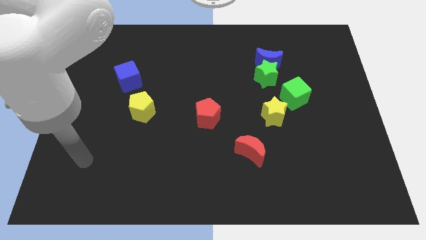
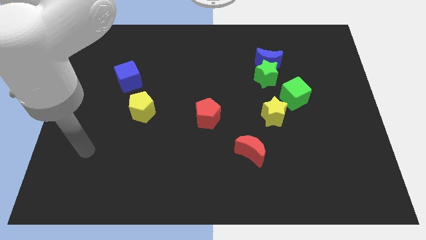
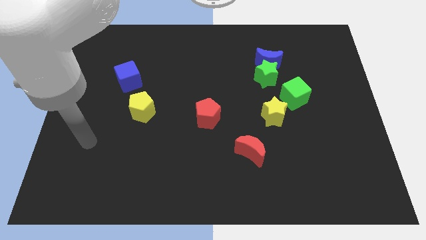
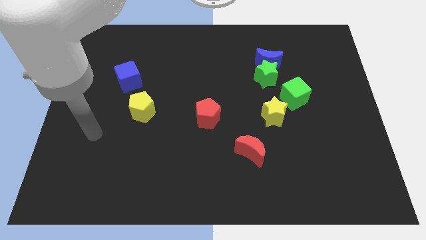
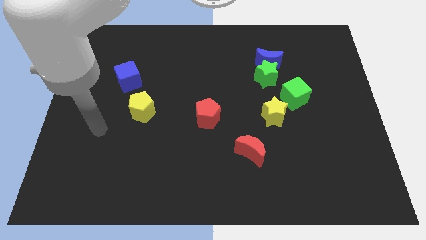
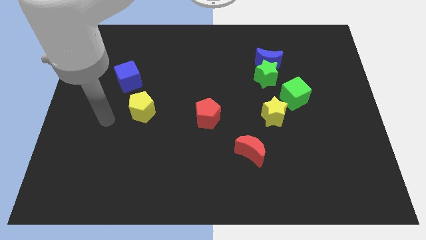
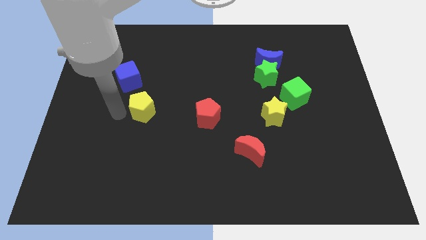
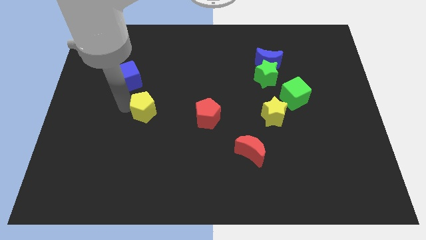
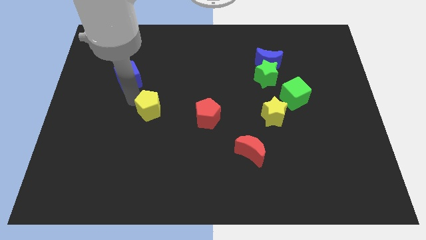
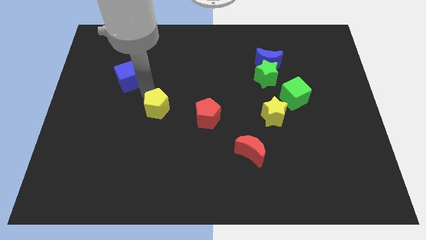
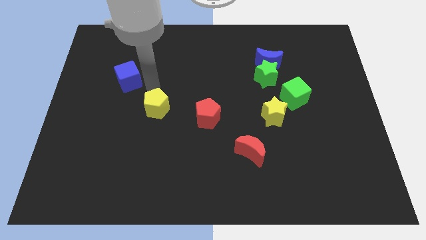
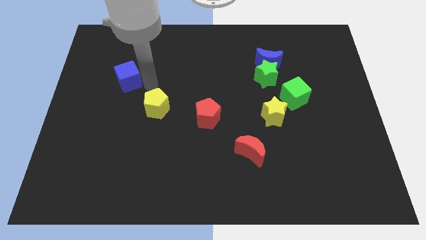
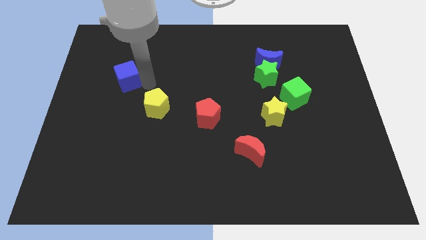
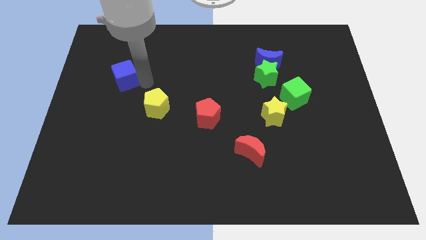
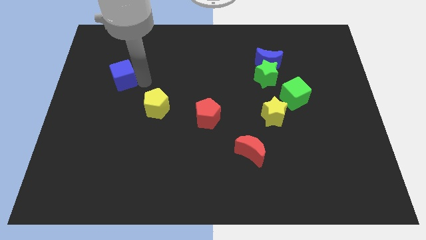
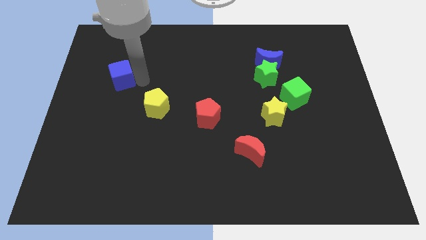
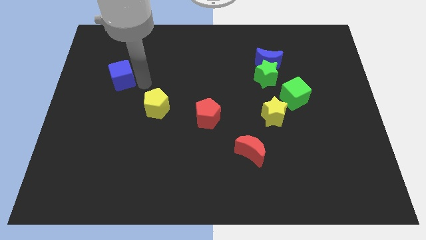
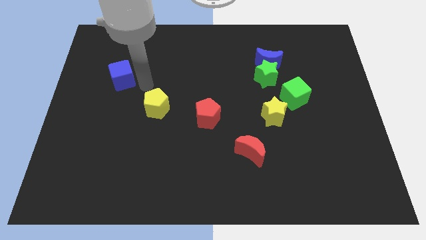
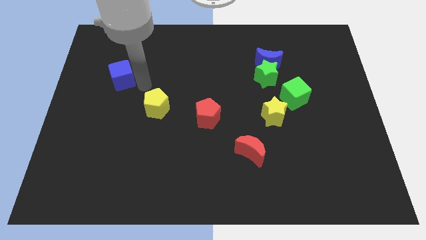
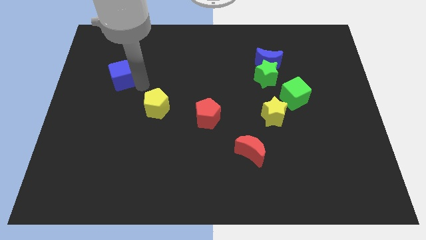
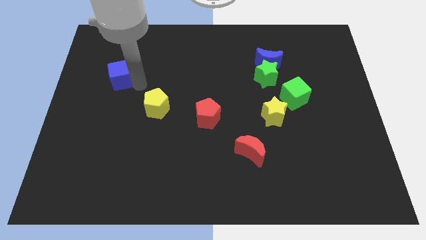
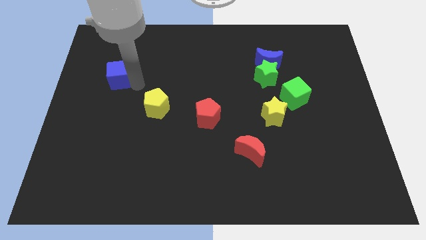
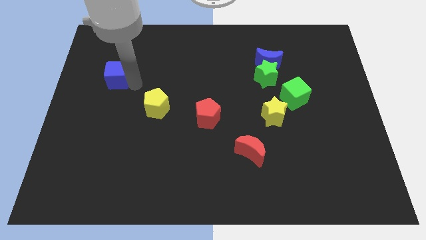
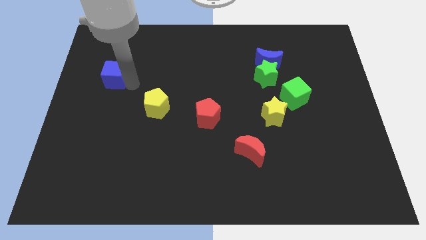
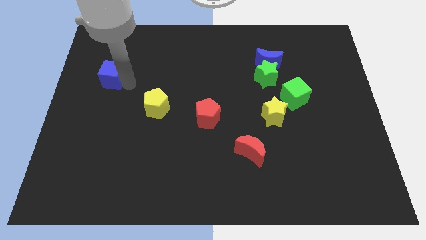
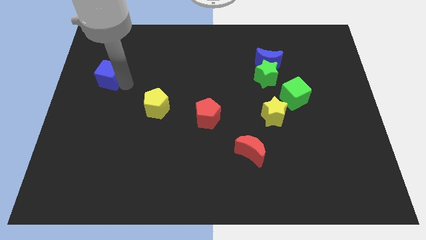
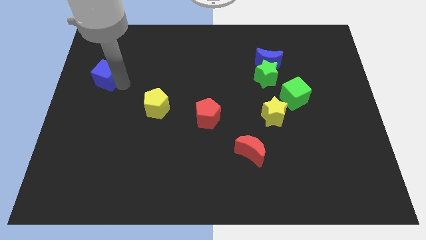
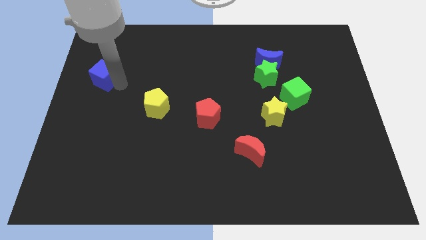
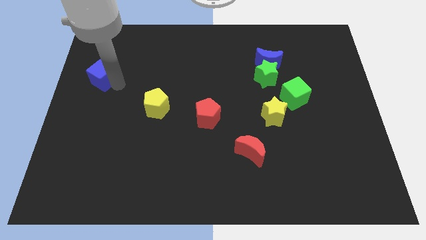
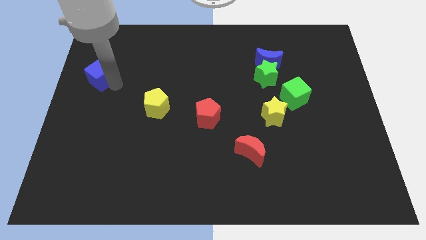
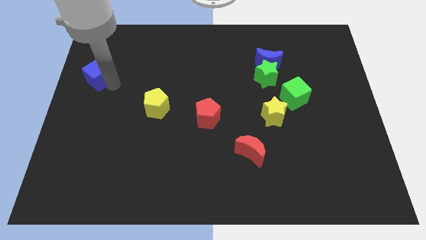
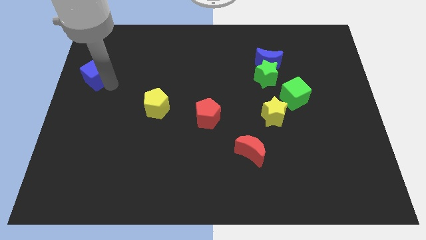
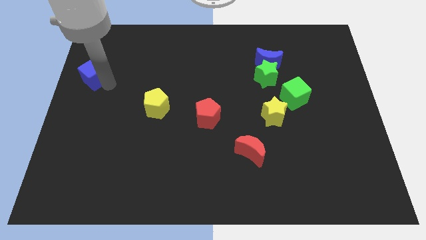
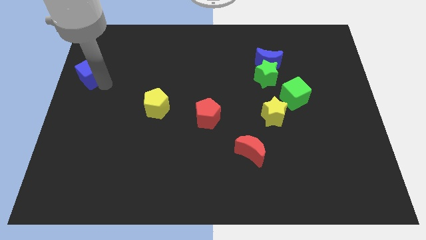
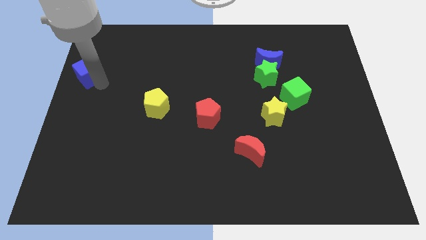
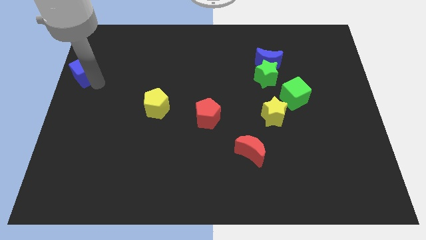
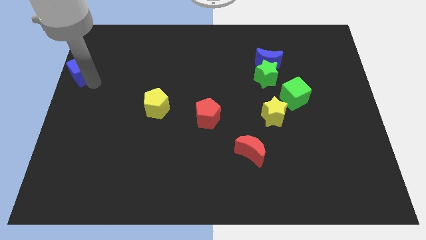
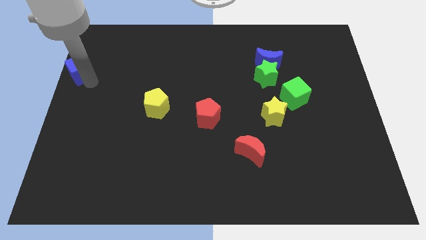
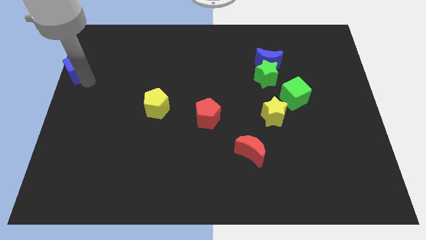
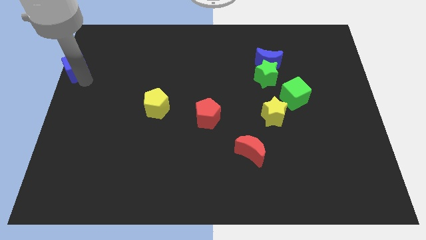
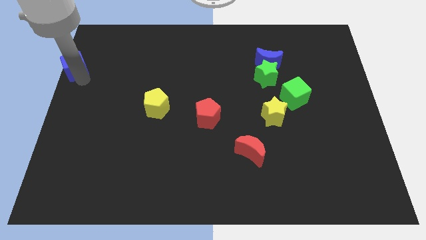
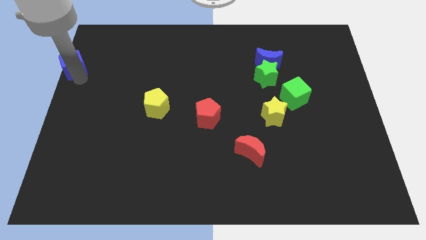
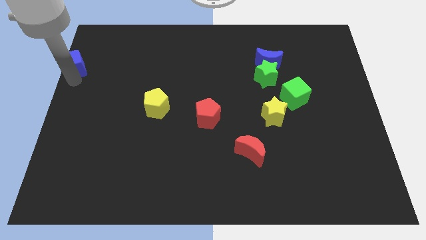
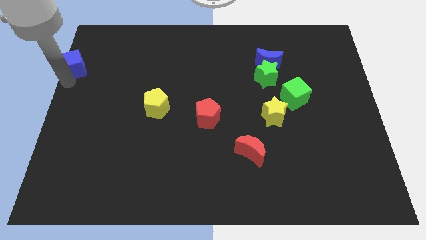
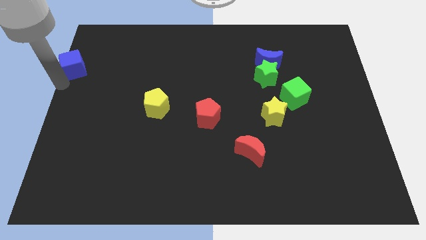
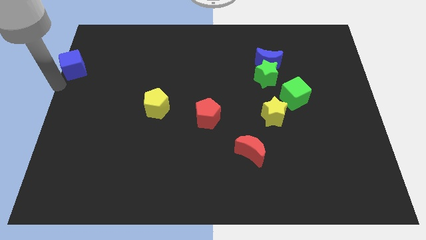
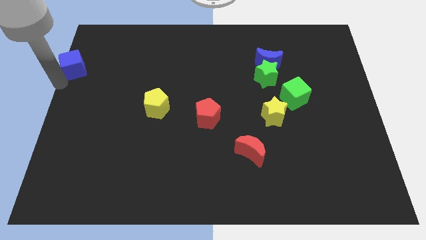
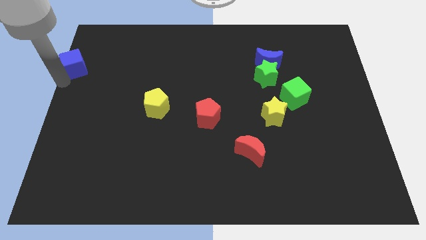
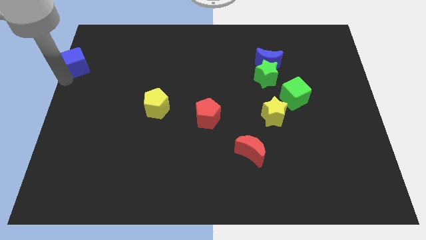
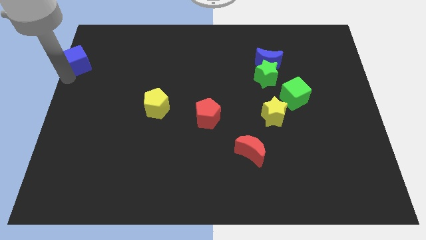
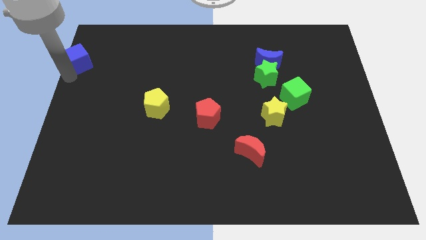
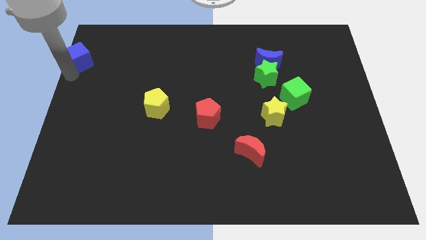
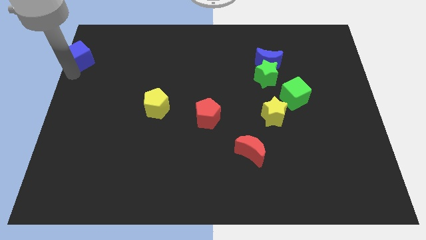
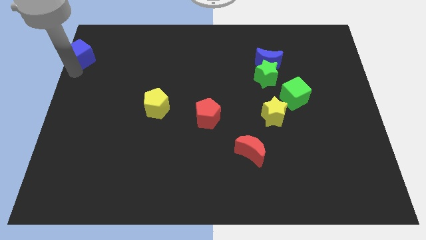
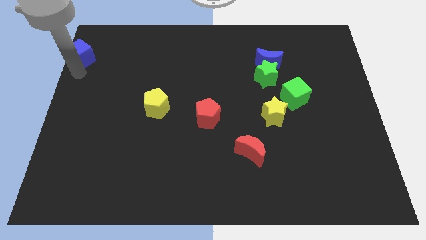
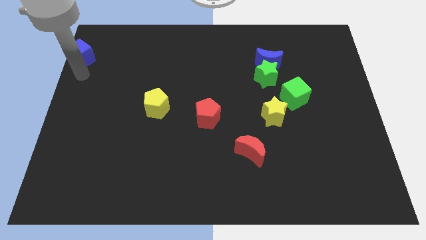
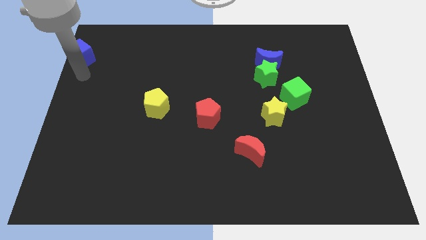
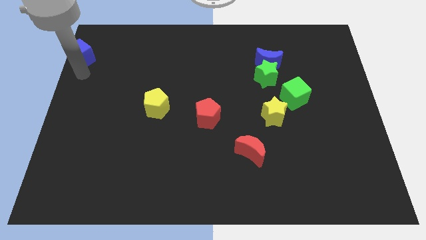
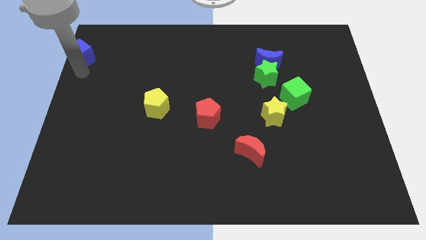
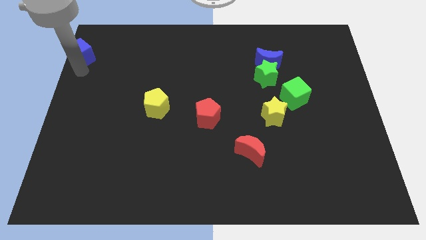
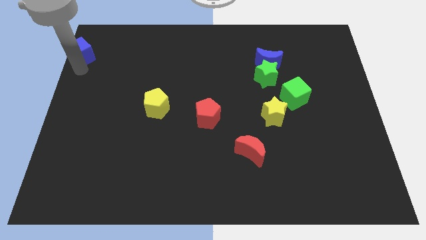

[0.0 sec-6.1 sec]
put the blue cube to the upper left corner
